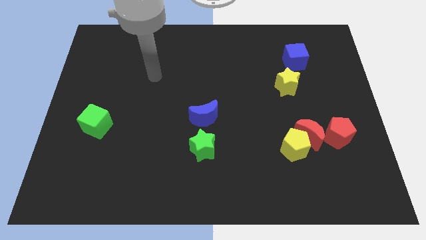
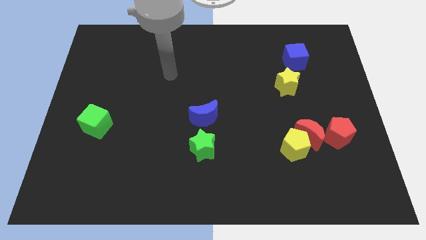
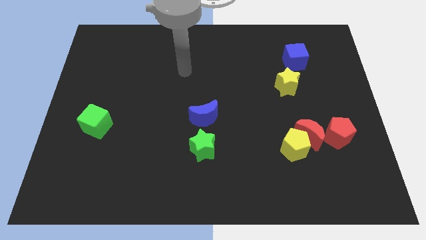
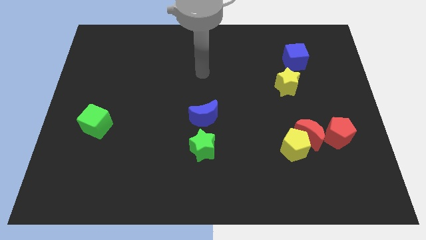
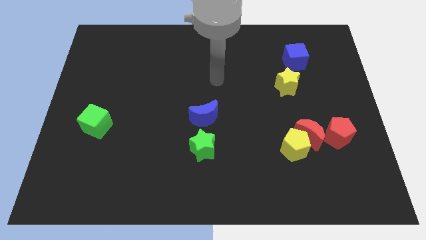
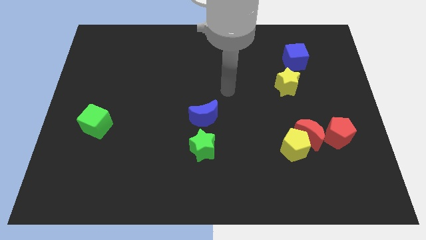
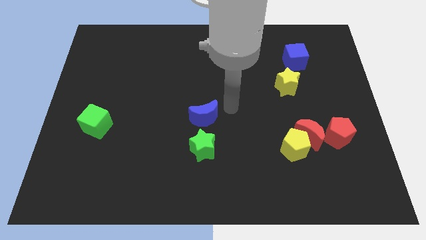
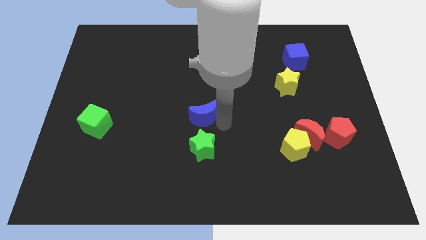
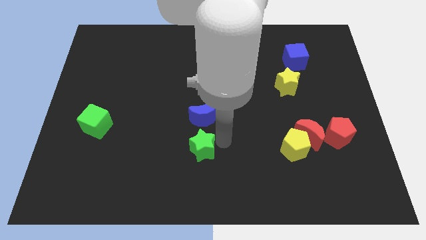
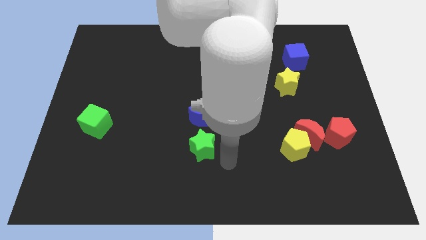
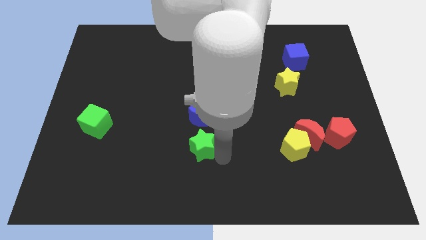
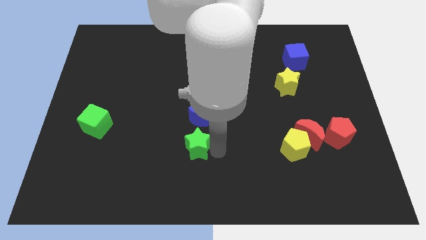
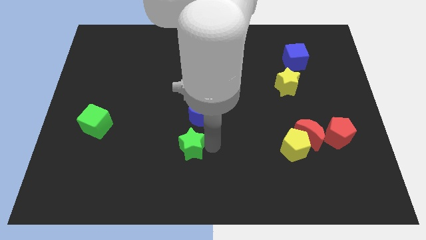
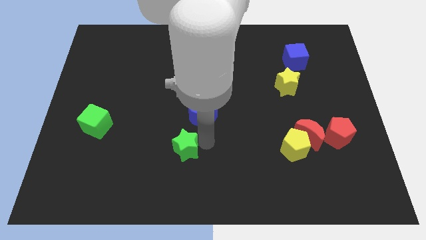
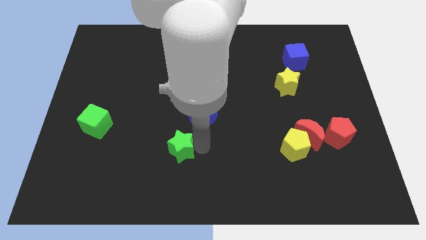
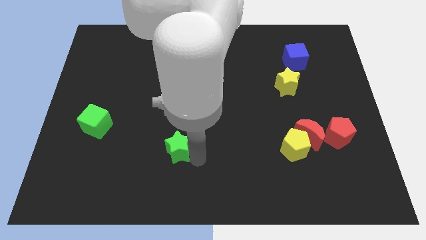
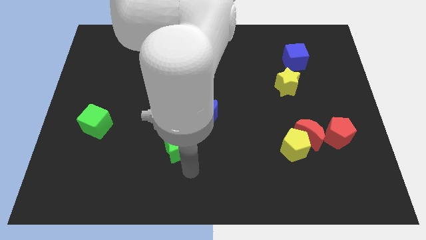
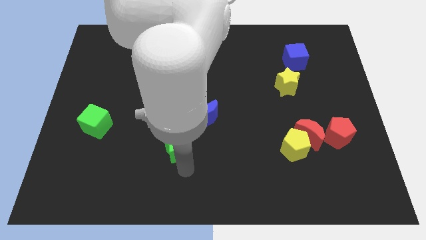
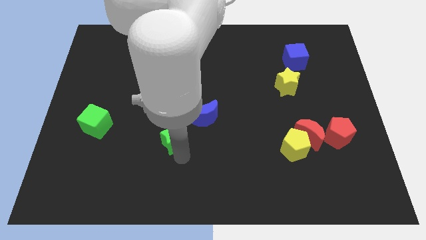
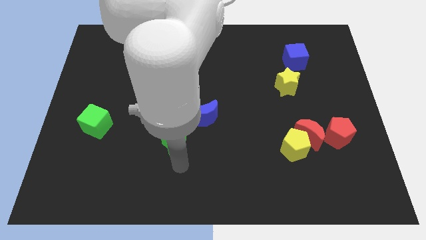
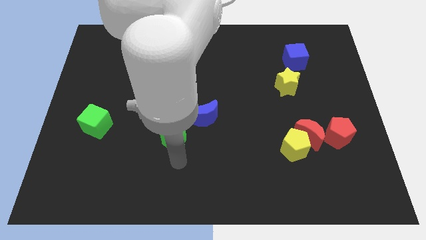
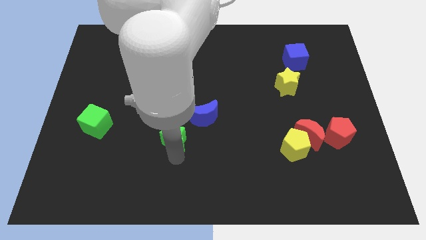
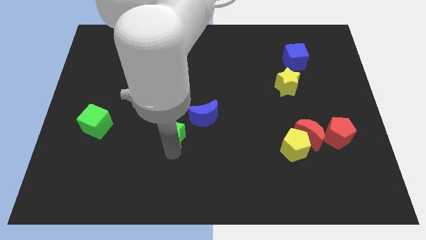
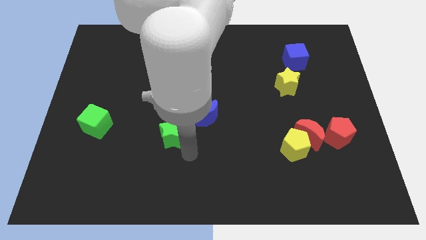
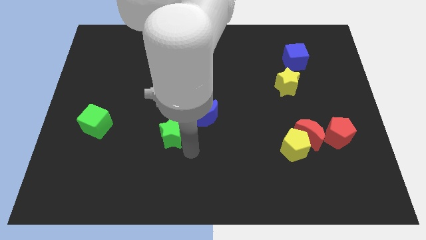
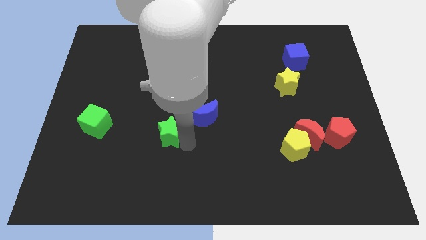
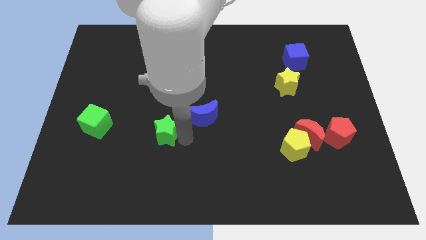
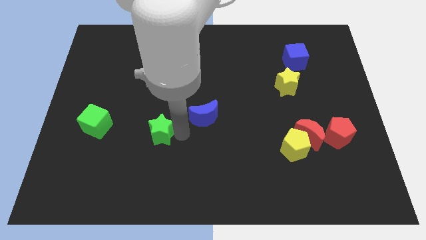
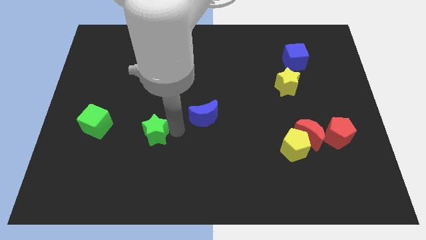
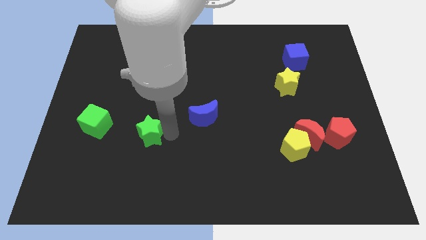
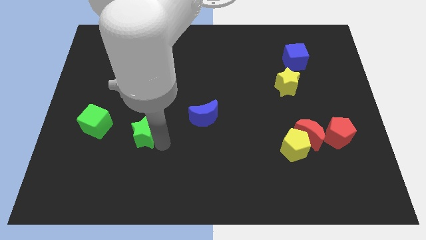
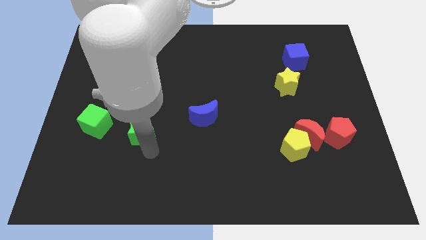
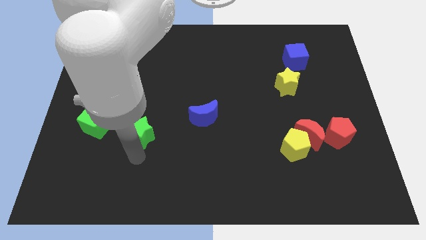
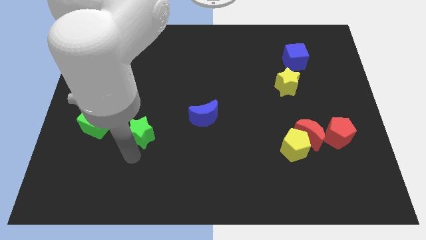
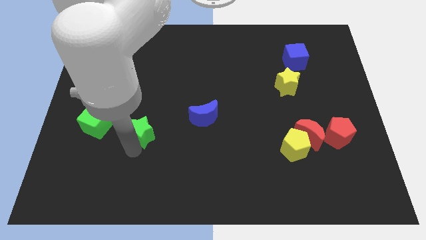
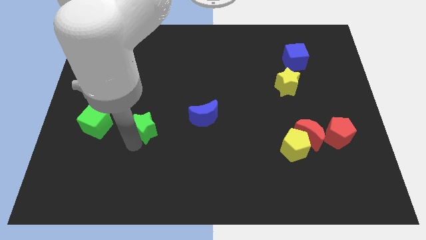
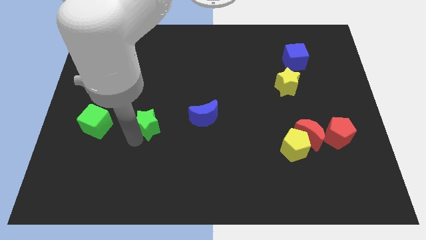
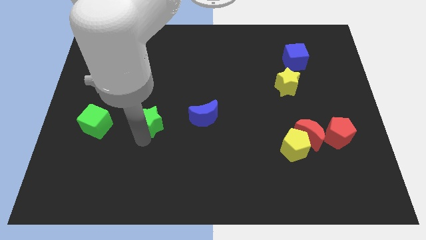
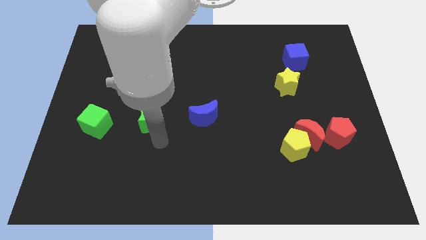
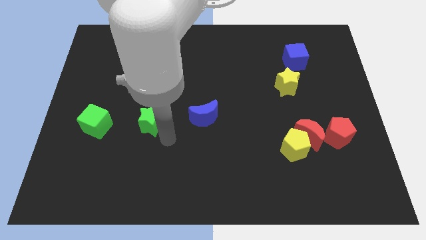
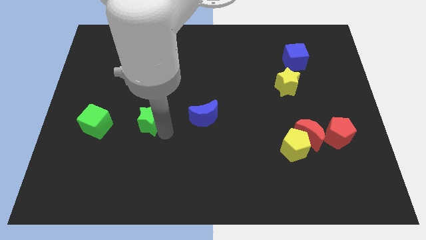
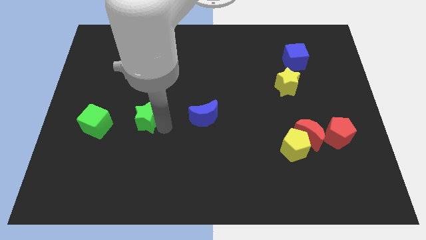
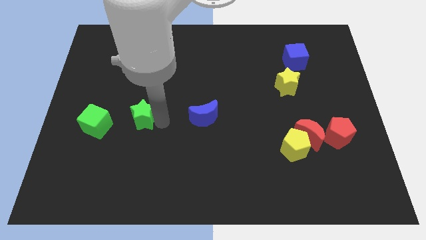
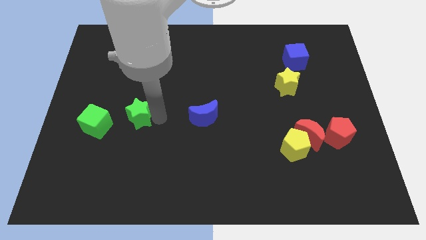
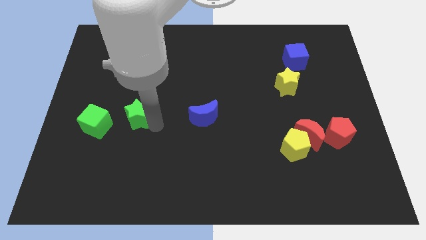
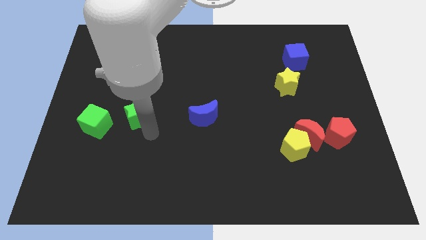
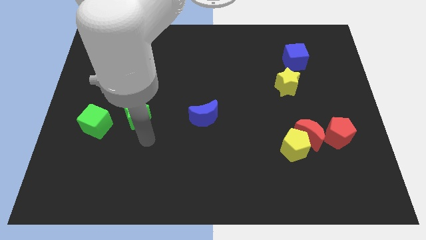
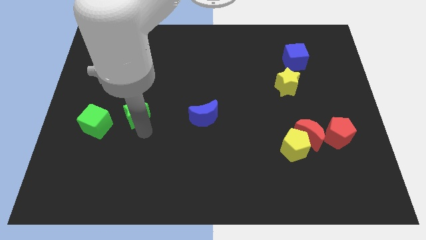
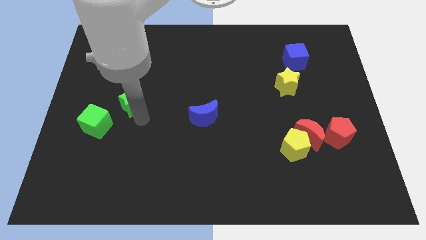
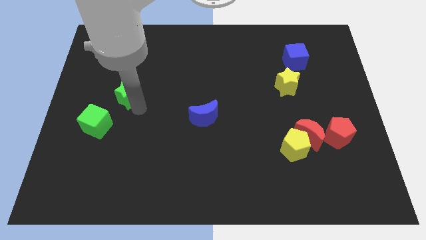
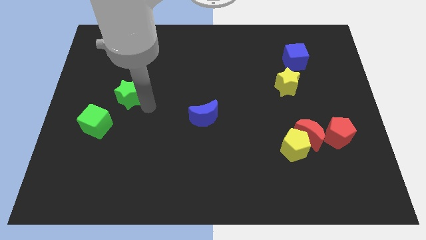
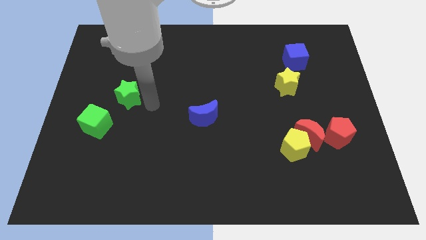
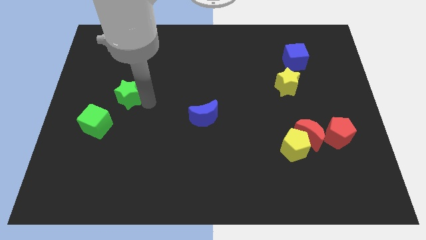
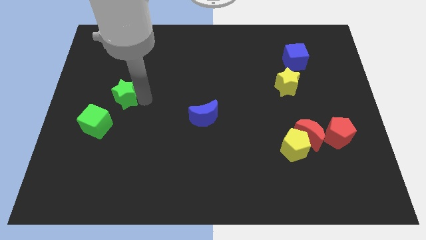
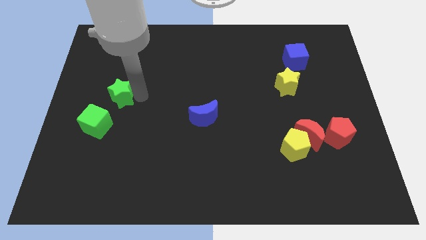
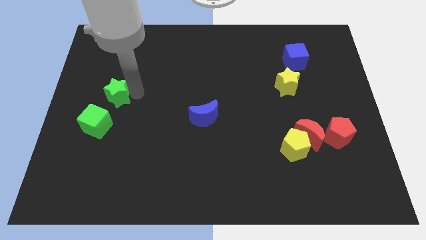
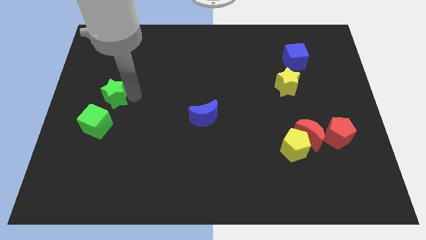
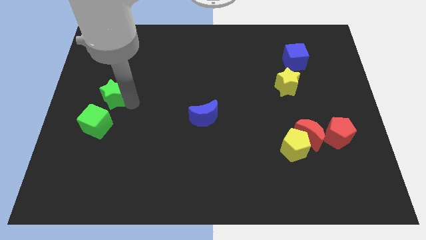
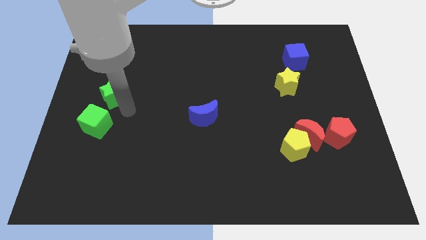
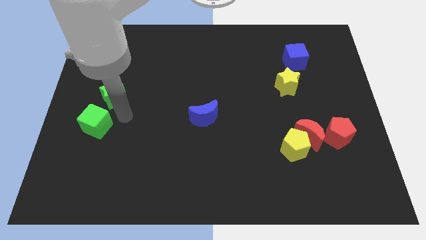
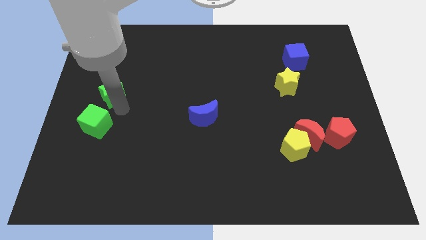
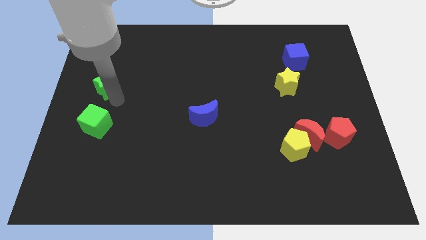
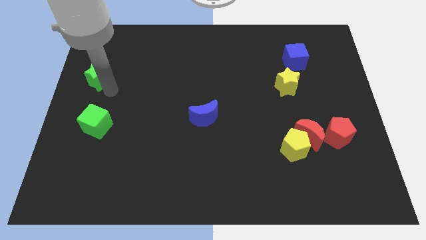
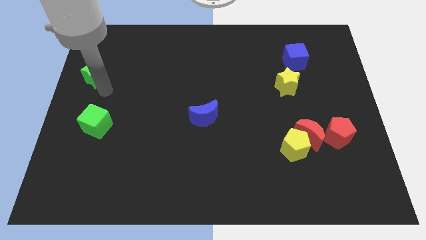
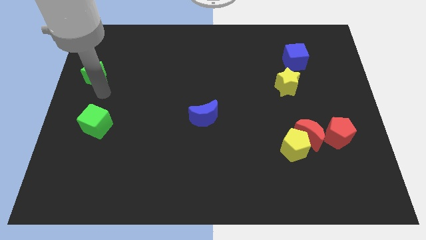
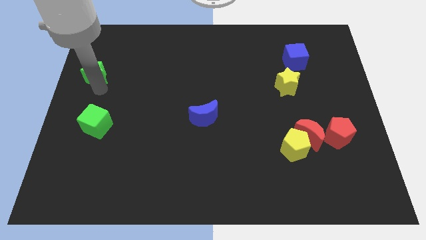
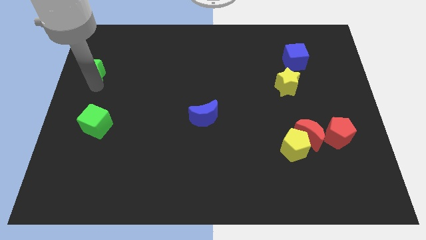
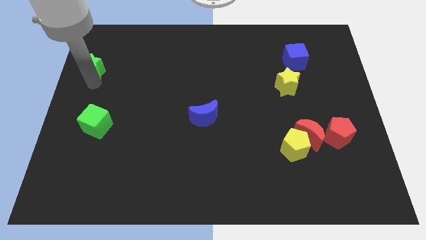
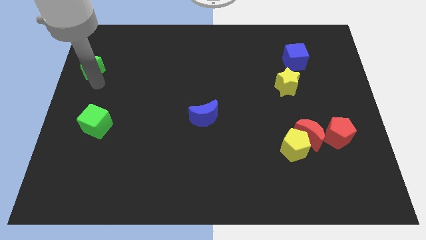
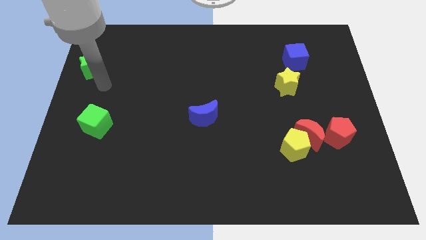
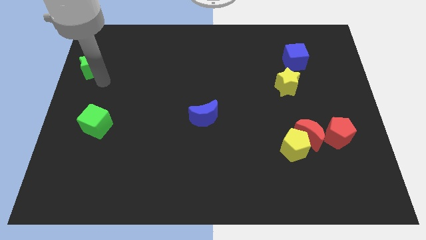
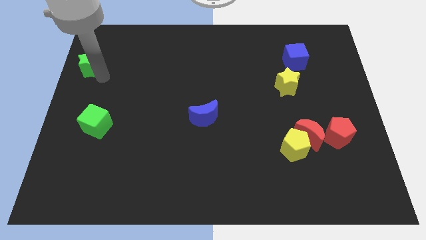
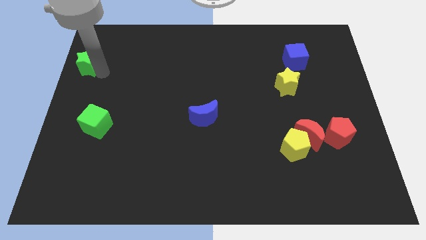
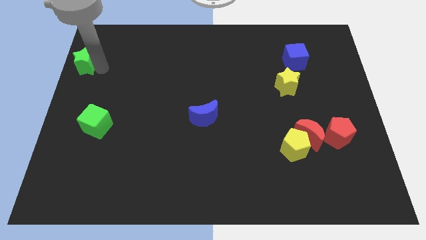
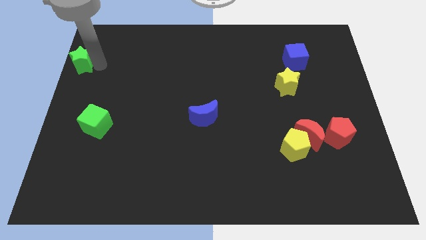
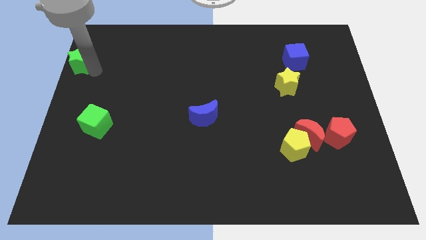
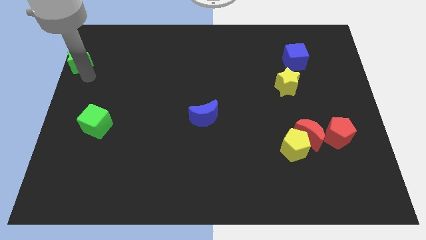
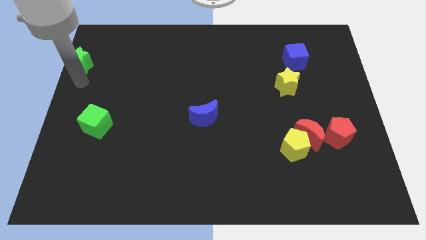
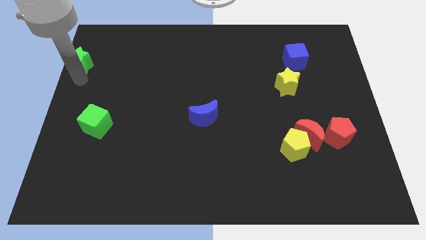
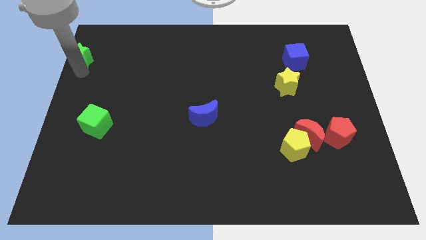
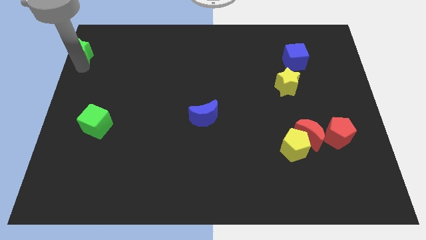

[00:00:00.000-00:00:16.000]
put the green star to the top left
